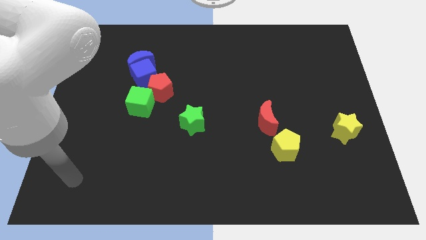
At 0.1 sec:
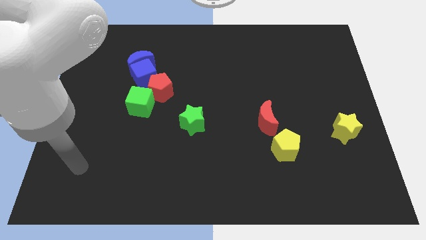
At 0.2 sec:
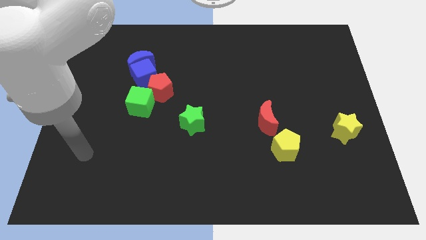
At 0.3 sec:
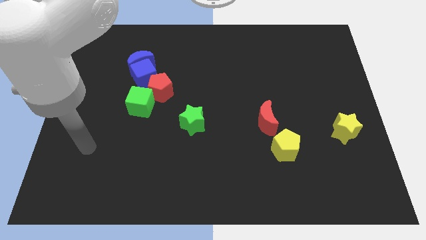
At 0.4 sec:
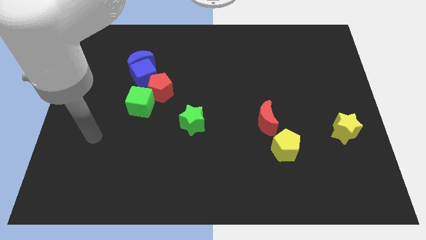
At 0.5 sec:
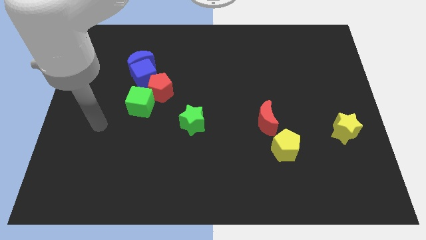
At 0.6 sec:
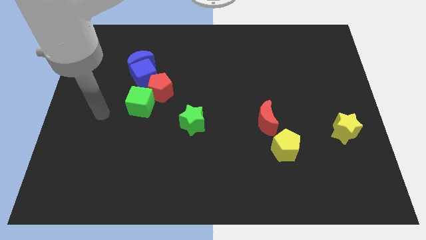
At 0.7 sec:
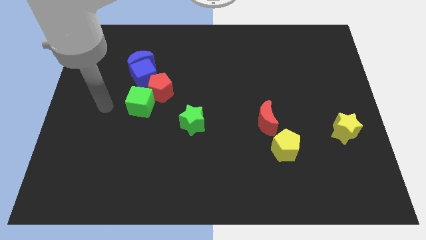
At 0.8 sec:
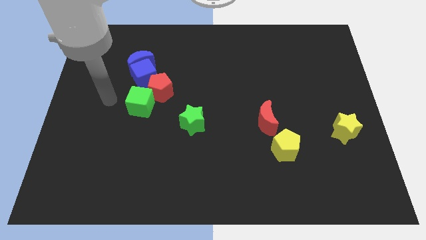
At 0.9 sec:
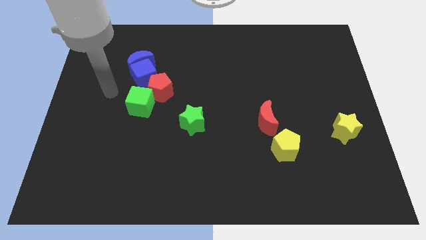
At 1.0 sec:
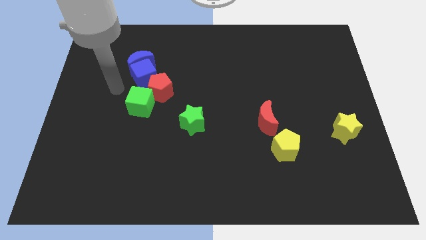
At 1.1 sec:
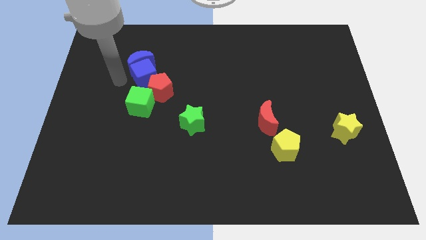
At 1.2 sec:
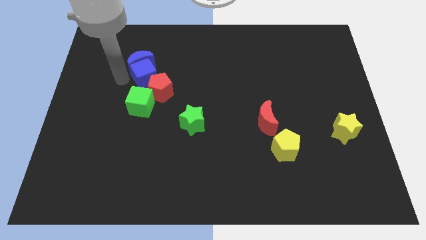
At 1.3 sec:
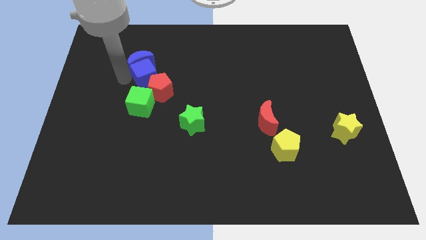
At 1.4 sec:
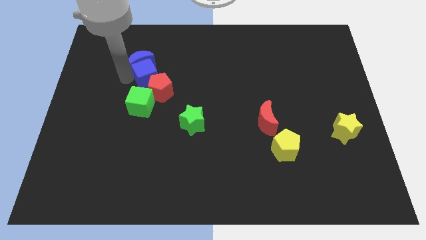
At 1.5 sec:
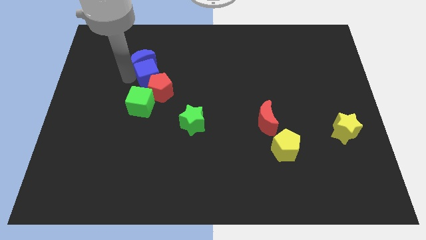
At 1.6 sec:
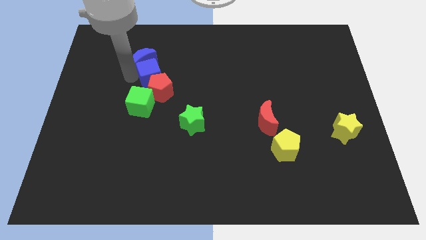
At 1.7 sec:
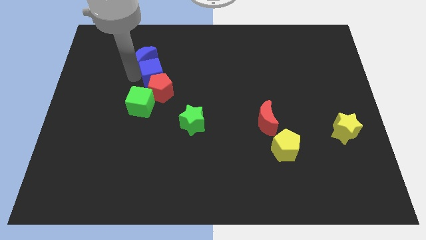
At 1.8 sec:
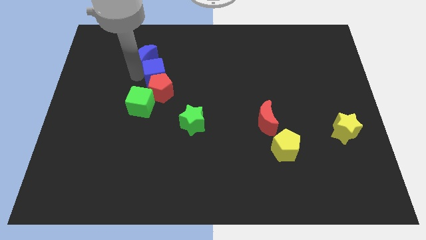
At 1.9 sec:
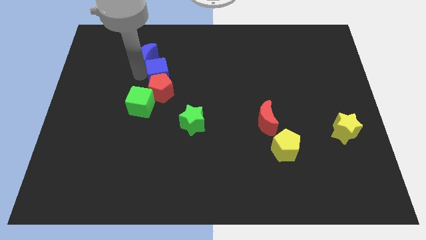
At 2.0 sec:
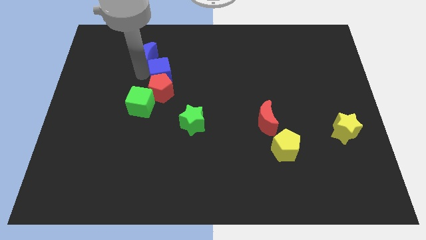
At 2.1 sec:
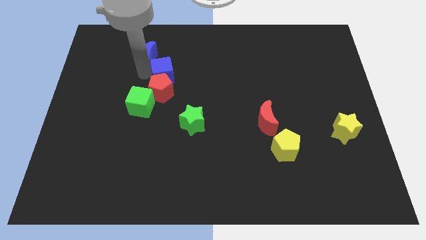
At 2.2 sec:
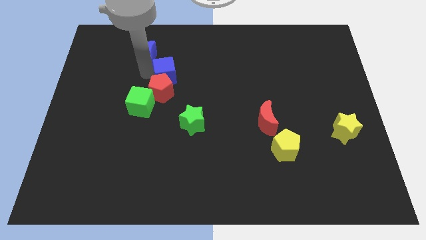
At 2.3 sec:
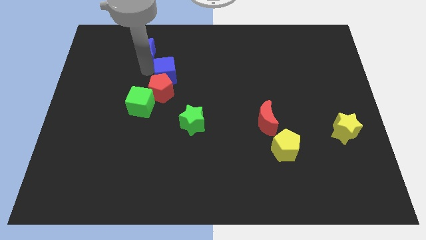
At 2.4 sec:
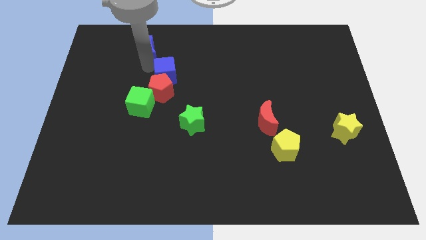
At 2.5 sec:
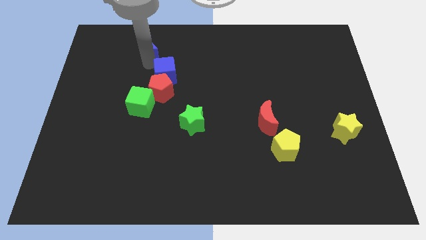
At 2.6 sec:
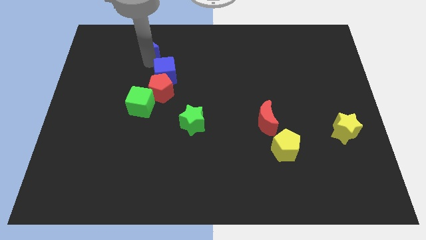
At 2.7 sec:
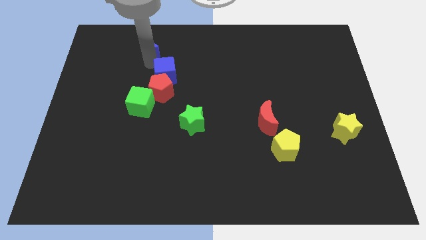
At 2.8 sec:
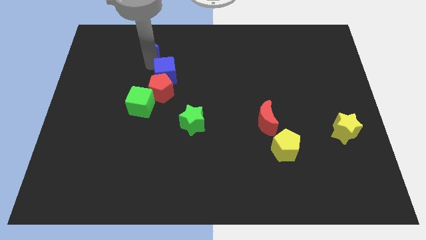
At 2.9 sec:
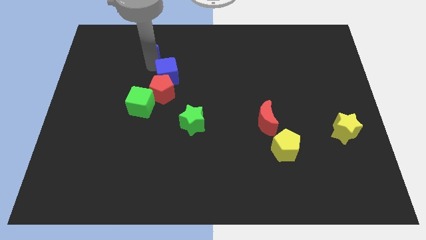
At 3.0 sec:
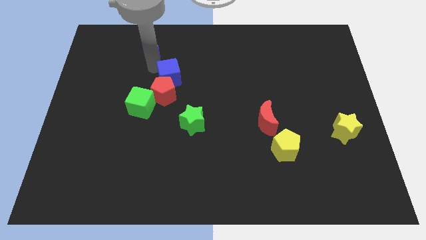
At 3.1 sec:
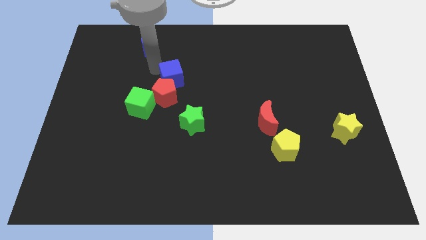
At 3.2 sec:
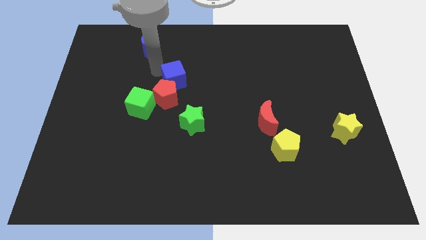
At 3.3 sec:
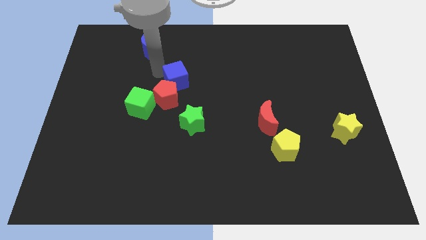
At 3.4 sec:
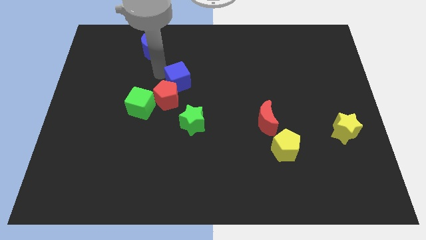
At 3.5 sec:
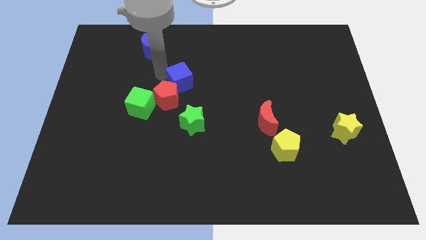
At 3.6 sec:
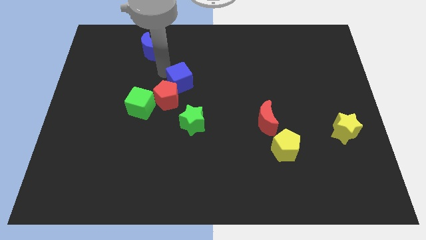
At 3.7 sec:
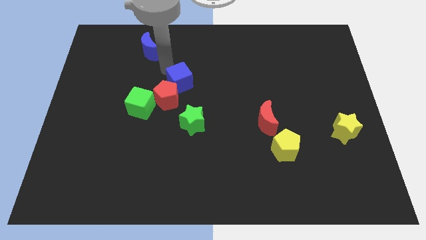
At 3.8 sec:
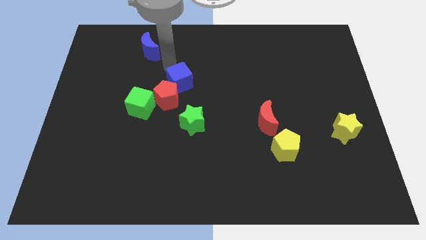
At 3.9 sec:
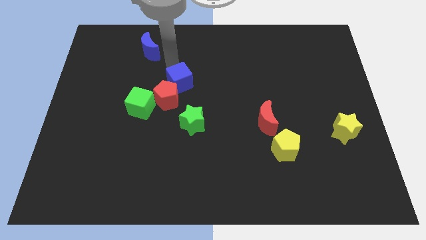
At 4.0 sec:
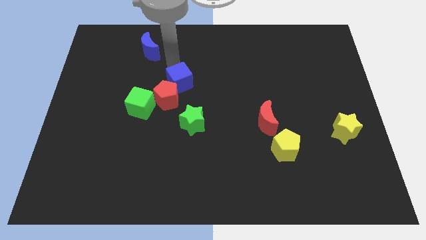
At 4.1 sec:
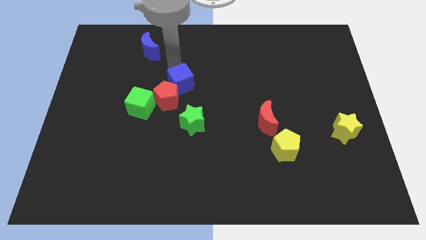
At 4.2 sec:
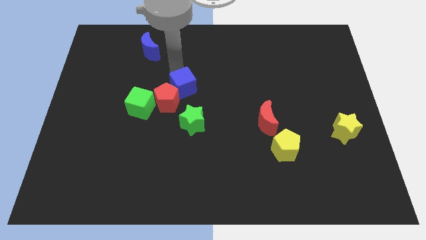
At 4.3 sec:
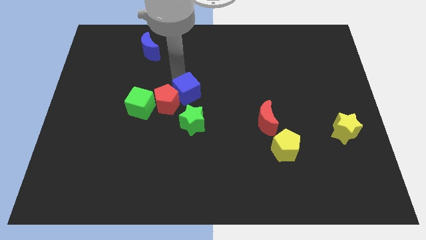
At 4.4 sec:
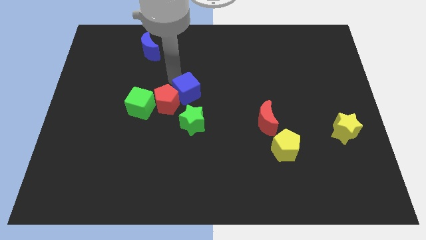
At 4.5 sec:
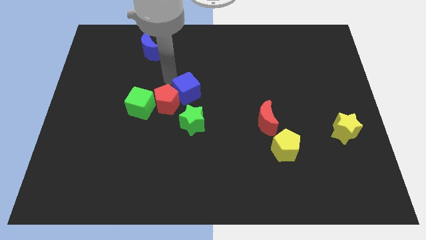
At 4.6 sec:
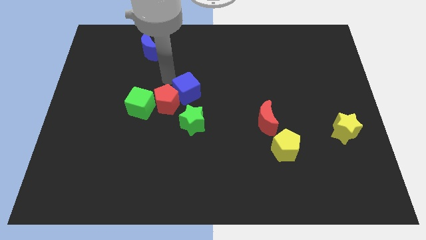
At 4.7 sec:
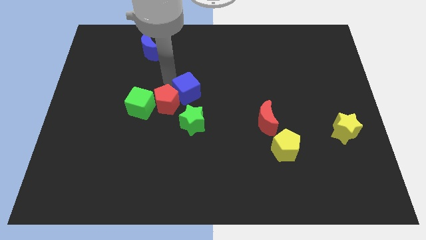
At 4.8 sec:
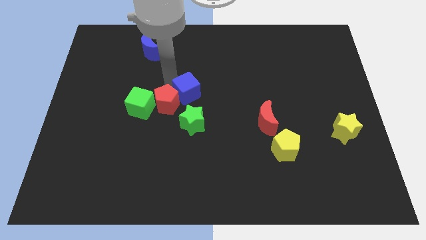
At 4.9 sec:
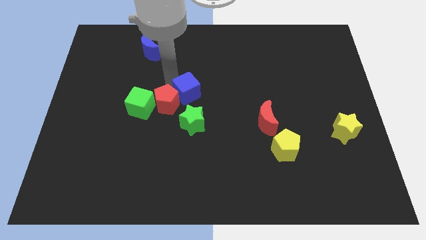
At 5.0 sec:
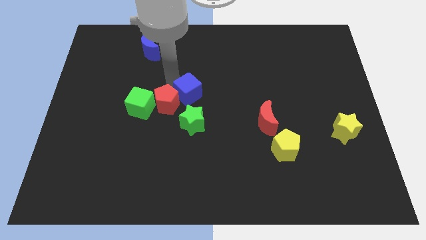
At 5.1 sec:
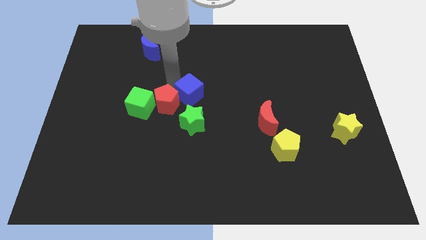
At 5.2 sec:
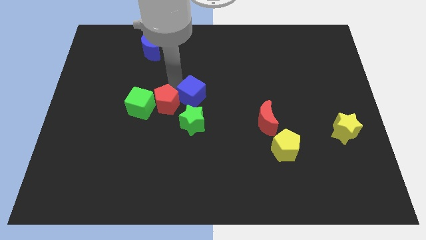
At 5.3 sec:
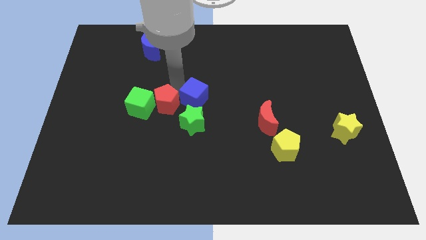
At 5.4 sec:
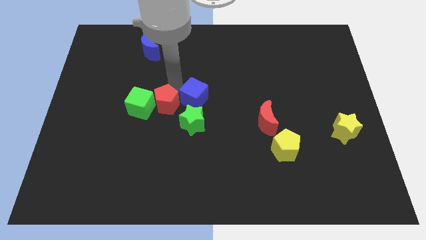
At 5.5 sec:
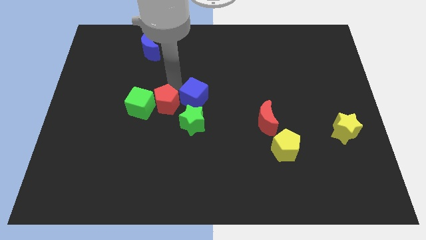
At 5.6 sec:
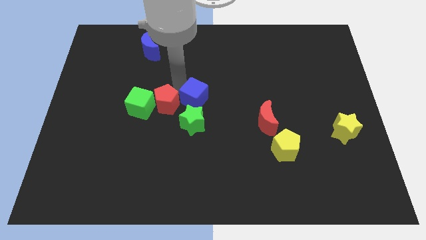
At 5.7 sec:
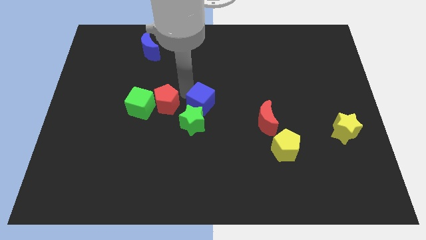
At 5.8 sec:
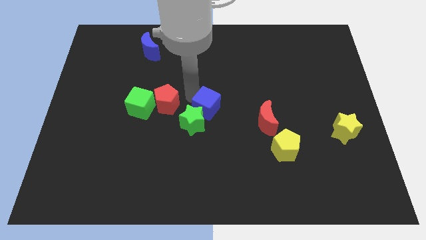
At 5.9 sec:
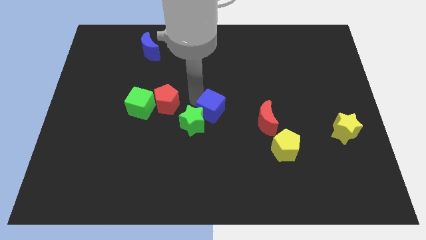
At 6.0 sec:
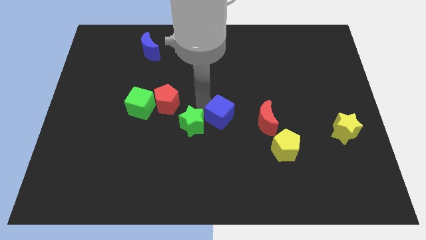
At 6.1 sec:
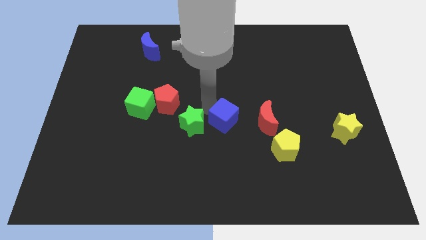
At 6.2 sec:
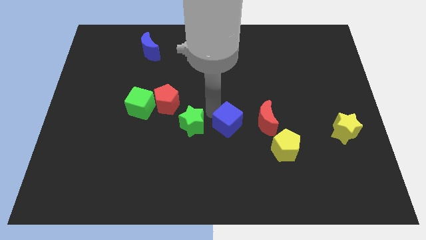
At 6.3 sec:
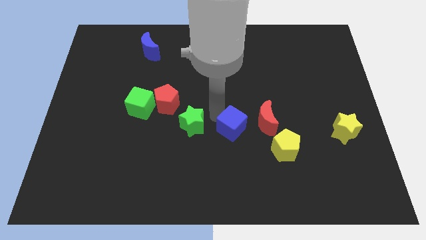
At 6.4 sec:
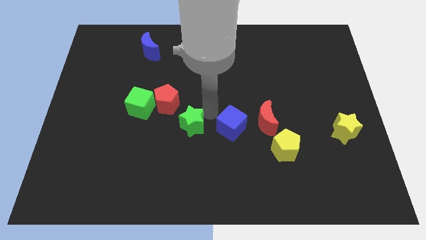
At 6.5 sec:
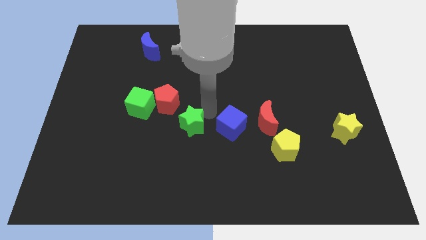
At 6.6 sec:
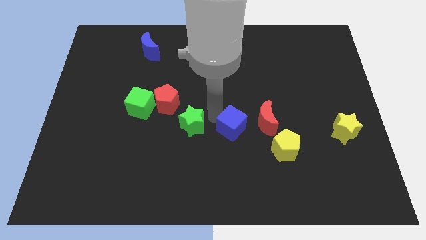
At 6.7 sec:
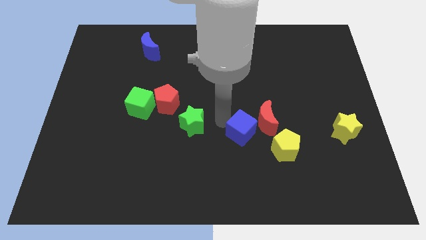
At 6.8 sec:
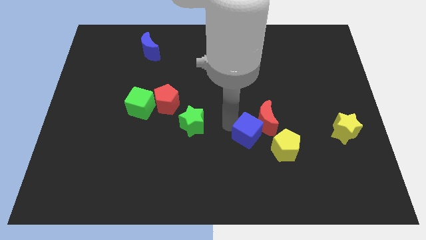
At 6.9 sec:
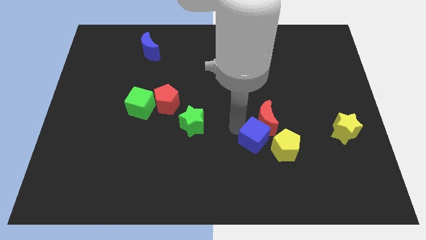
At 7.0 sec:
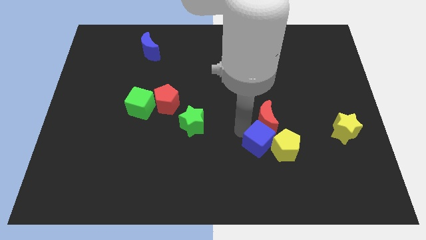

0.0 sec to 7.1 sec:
put the blue cube to the yellow pentagon
